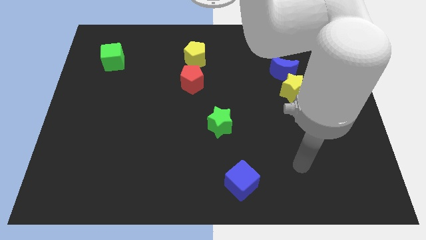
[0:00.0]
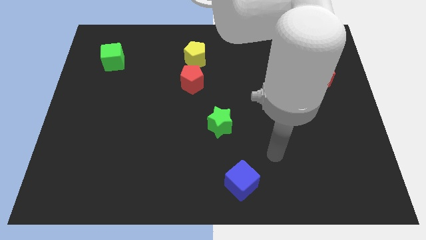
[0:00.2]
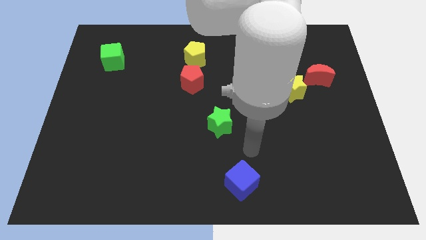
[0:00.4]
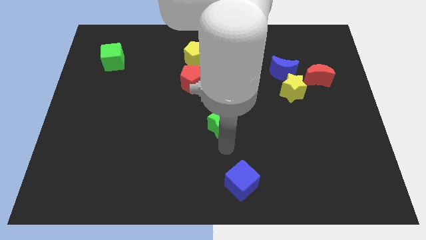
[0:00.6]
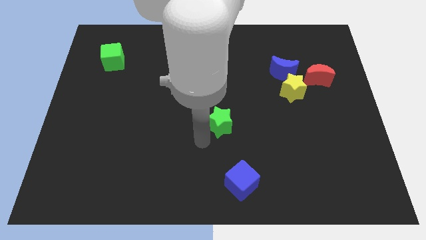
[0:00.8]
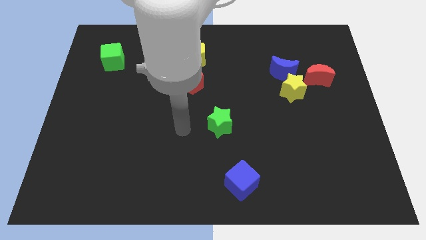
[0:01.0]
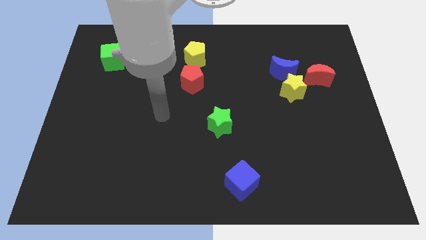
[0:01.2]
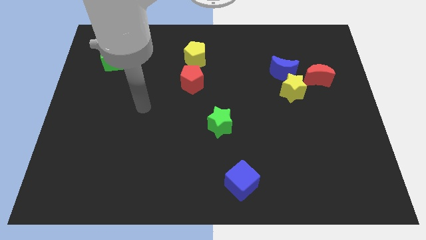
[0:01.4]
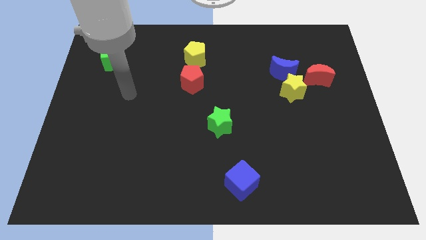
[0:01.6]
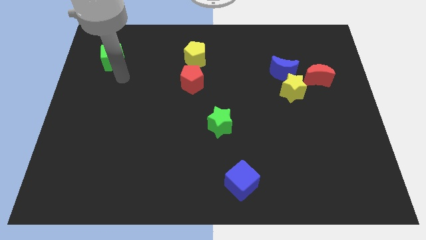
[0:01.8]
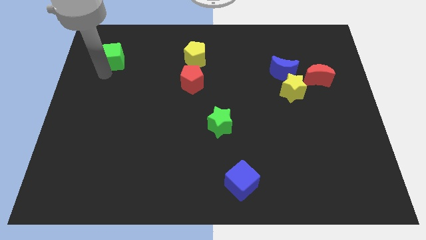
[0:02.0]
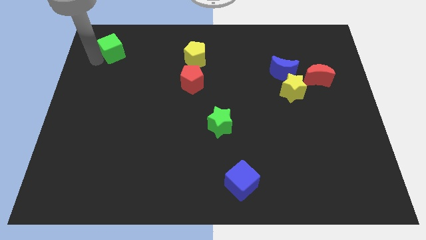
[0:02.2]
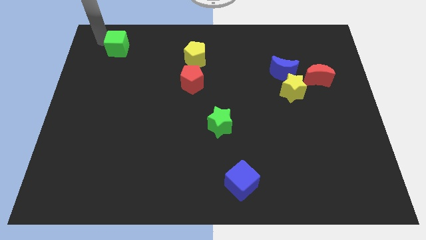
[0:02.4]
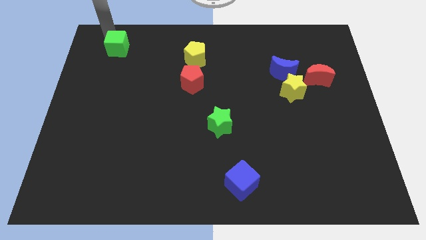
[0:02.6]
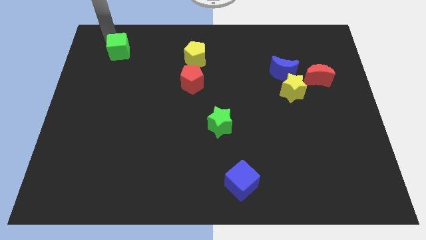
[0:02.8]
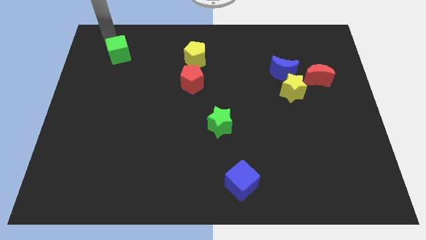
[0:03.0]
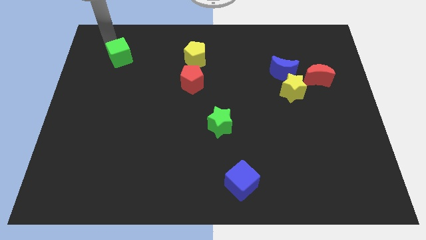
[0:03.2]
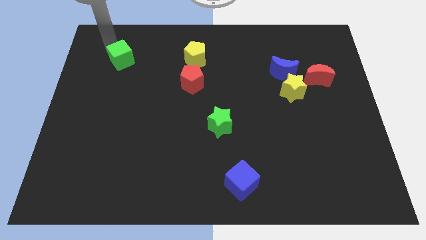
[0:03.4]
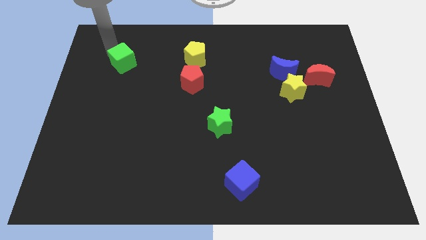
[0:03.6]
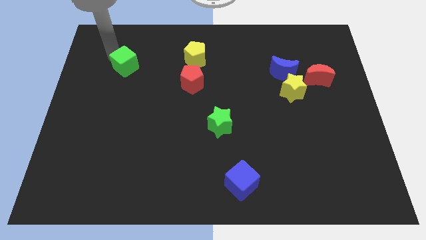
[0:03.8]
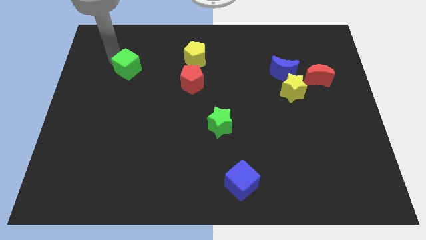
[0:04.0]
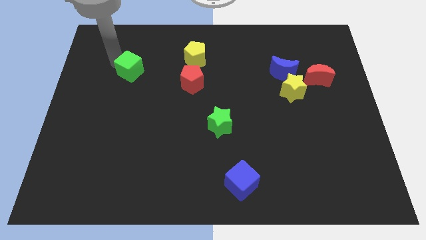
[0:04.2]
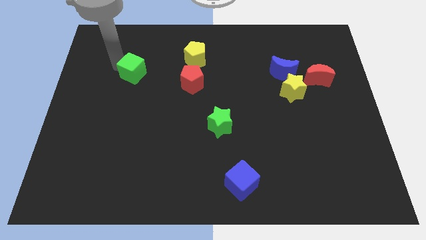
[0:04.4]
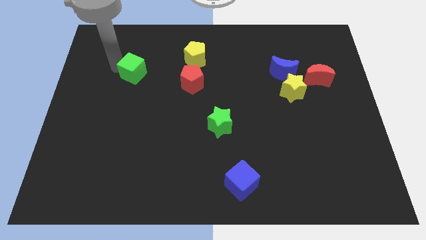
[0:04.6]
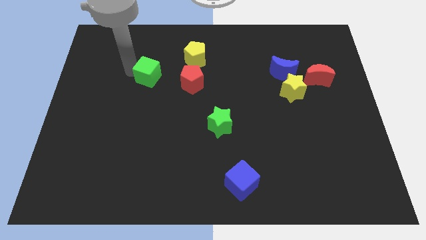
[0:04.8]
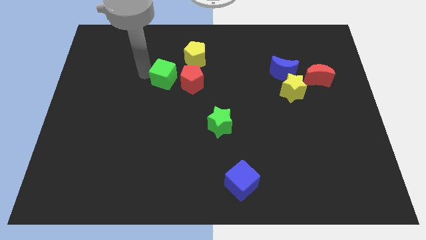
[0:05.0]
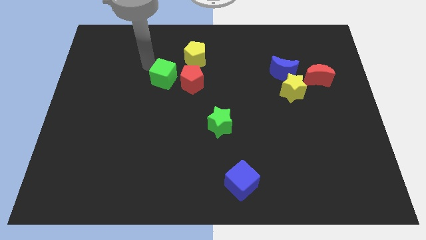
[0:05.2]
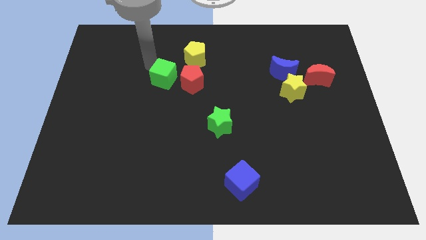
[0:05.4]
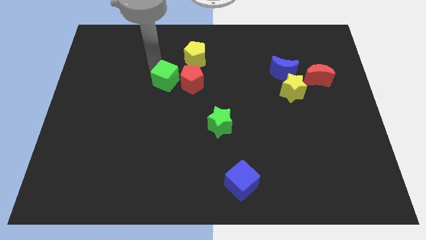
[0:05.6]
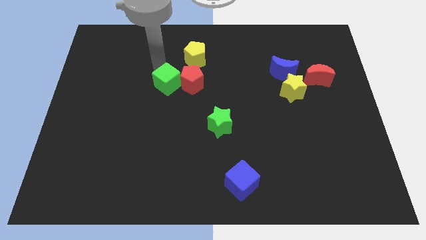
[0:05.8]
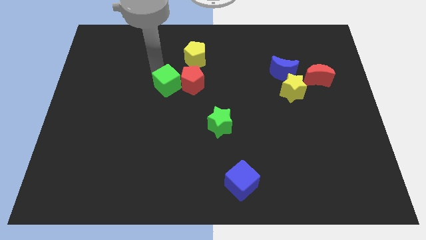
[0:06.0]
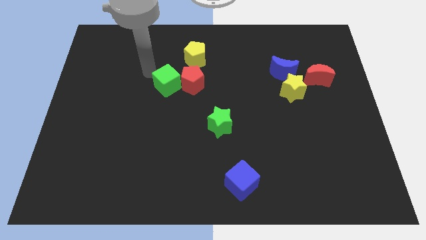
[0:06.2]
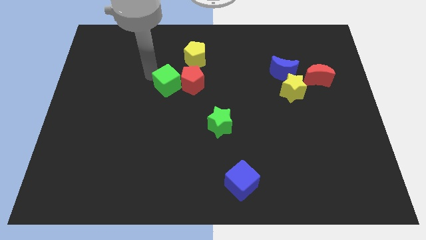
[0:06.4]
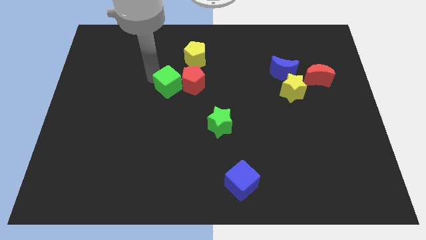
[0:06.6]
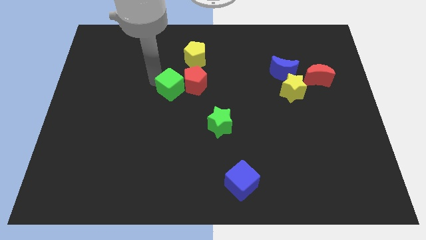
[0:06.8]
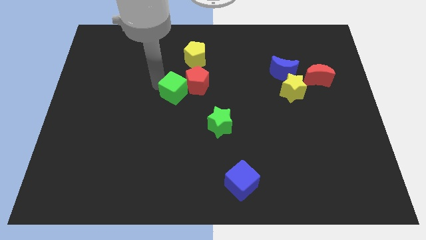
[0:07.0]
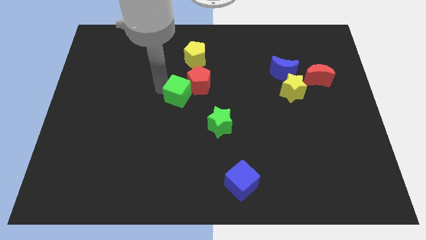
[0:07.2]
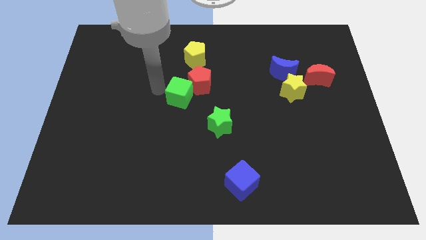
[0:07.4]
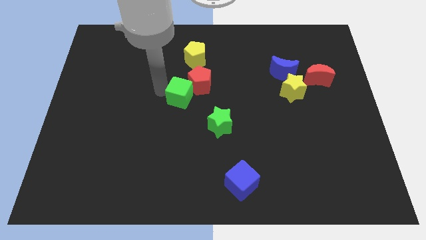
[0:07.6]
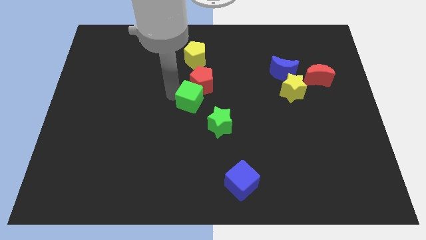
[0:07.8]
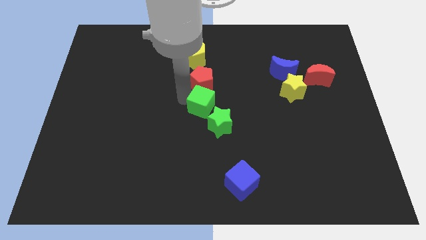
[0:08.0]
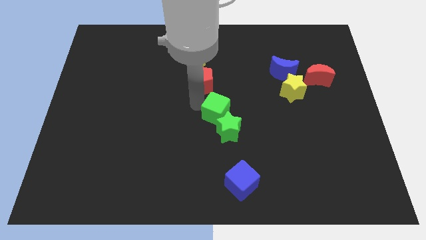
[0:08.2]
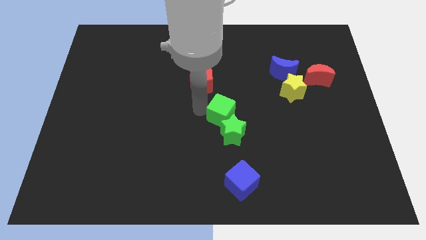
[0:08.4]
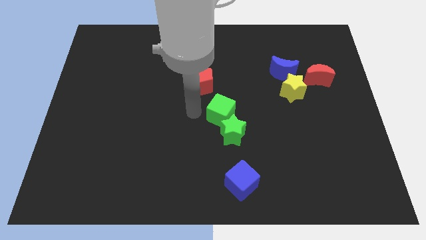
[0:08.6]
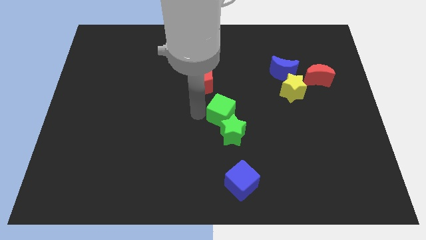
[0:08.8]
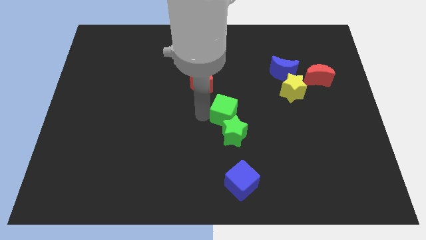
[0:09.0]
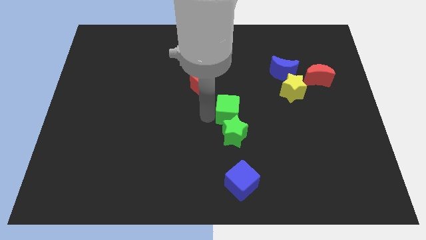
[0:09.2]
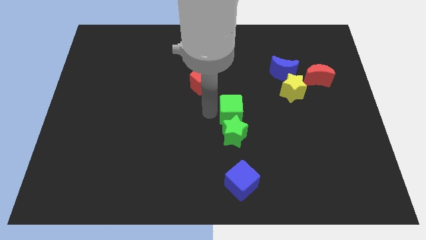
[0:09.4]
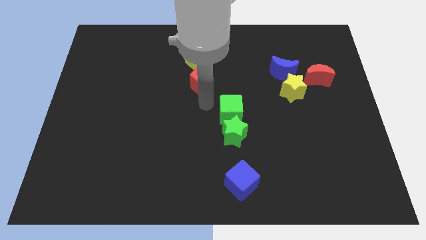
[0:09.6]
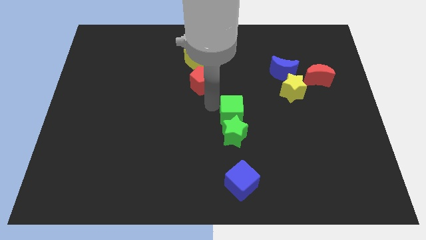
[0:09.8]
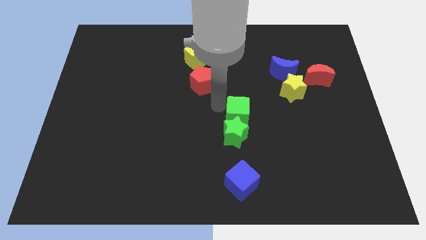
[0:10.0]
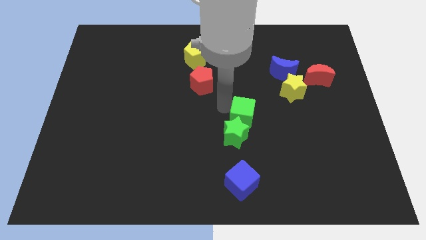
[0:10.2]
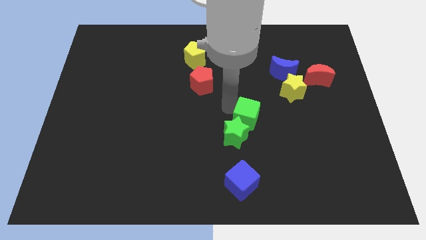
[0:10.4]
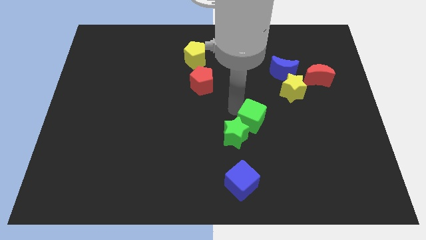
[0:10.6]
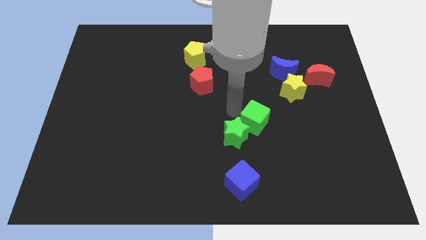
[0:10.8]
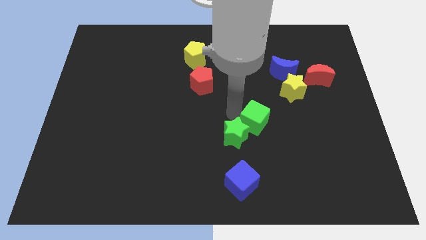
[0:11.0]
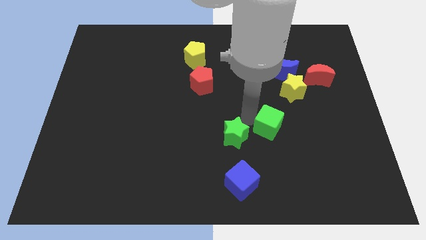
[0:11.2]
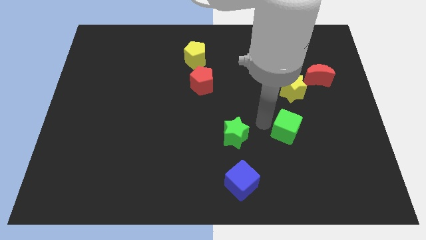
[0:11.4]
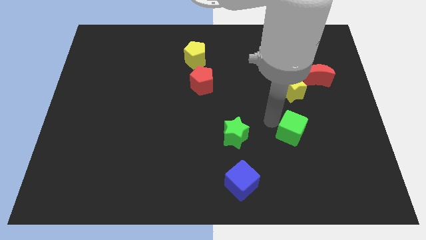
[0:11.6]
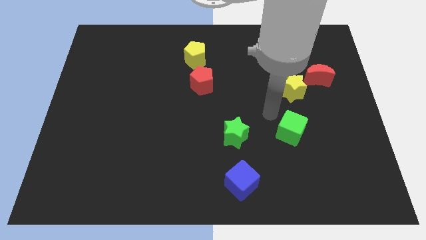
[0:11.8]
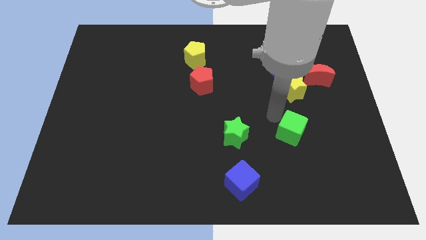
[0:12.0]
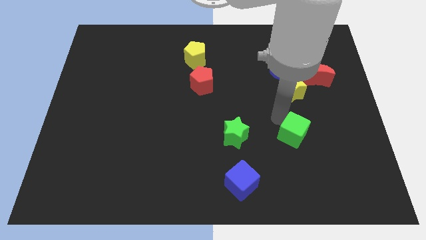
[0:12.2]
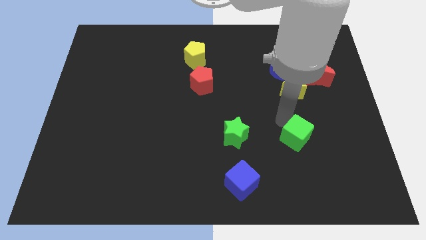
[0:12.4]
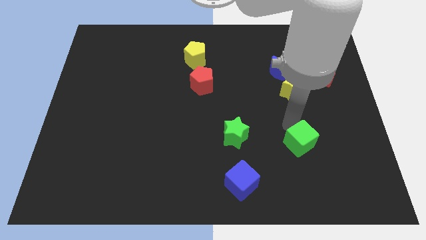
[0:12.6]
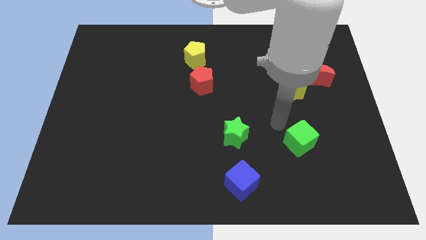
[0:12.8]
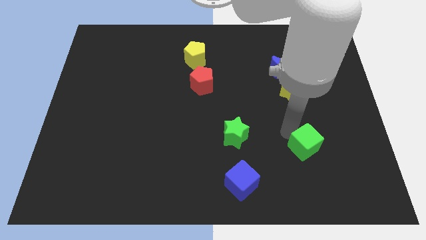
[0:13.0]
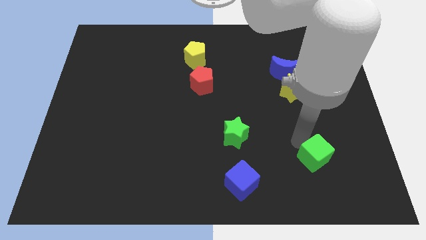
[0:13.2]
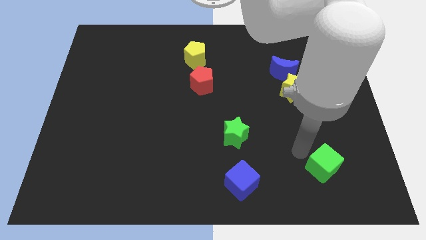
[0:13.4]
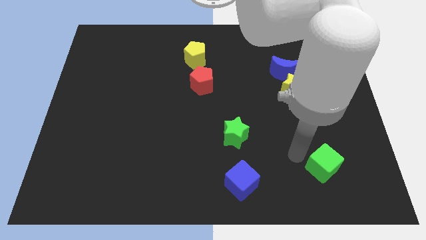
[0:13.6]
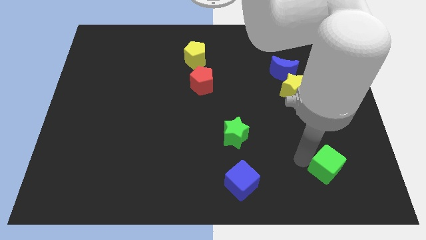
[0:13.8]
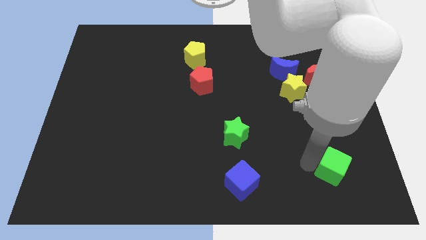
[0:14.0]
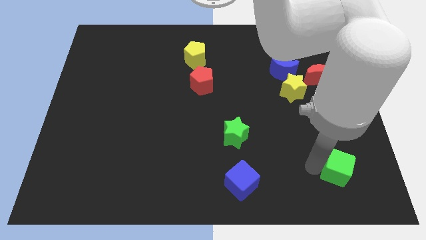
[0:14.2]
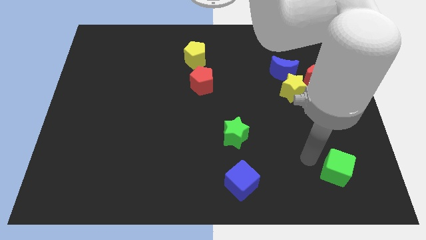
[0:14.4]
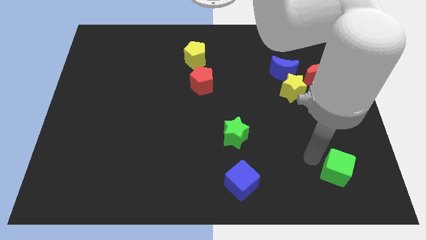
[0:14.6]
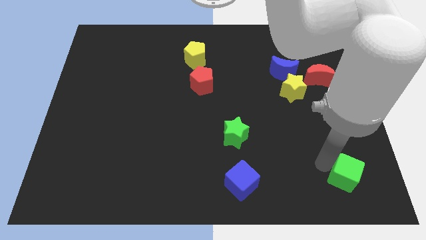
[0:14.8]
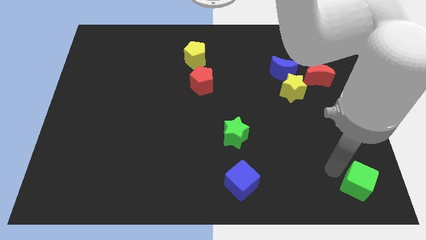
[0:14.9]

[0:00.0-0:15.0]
move the green cube to the bottom right
